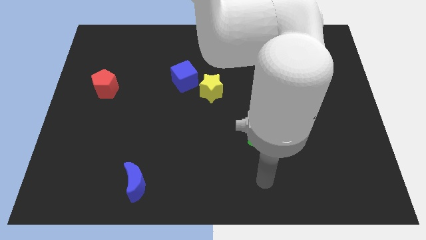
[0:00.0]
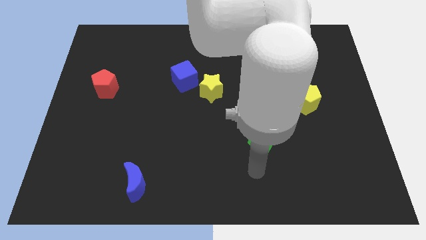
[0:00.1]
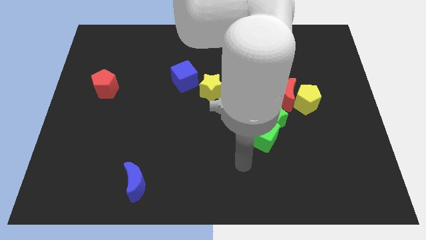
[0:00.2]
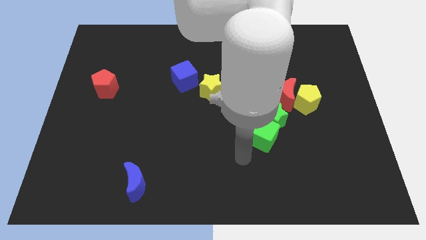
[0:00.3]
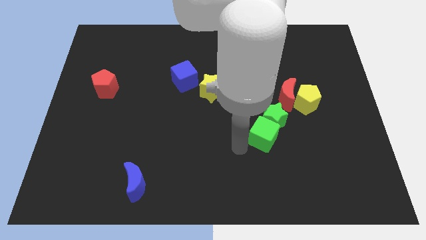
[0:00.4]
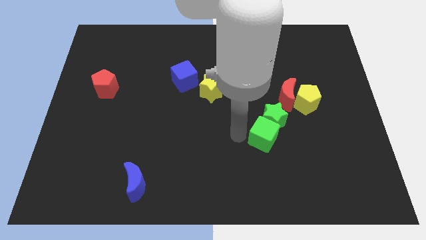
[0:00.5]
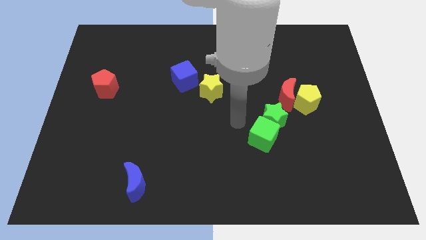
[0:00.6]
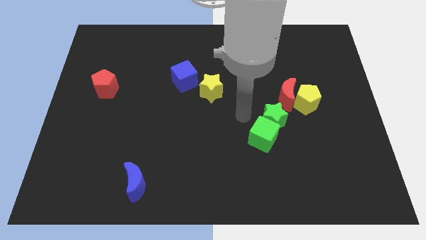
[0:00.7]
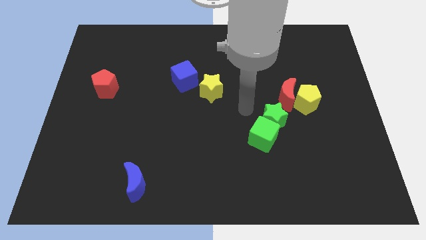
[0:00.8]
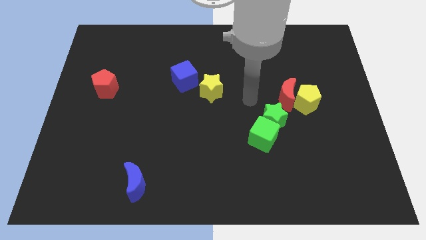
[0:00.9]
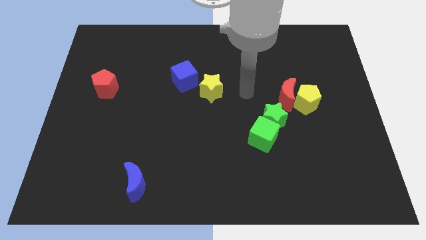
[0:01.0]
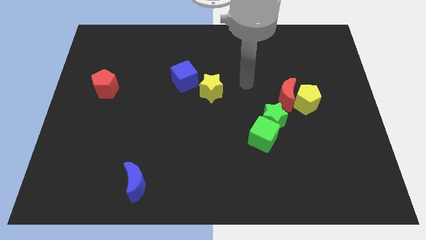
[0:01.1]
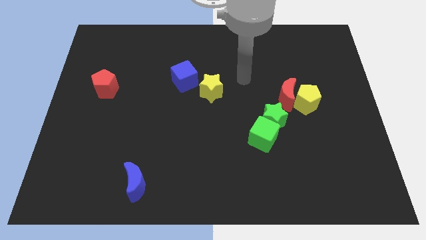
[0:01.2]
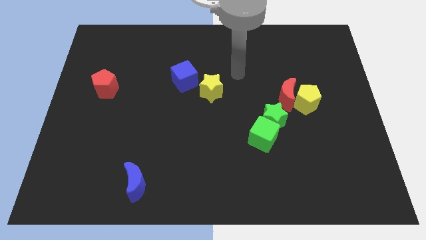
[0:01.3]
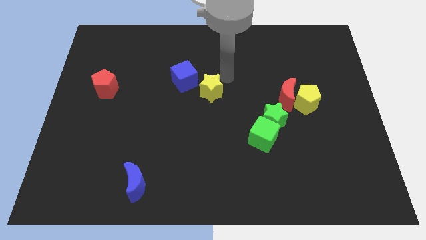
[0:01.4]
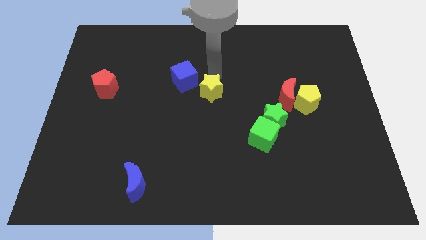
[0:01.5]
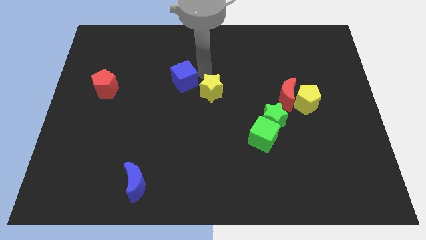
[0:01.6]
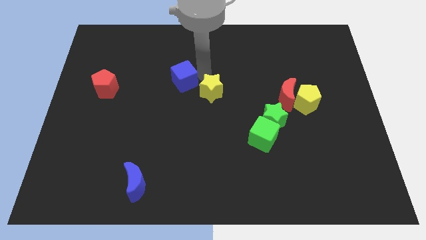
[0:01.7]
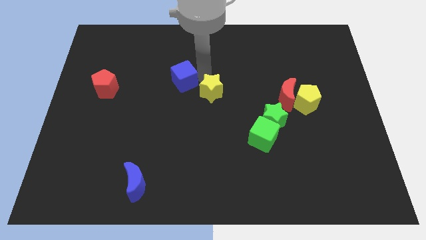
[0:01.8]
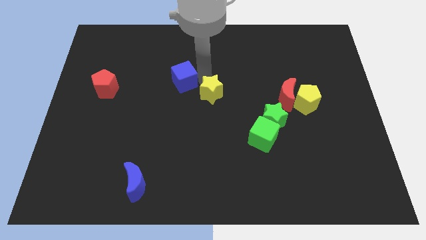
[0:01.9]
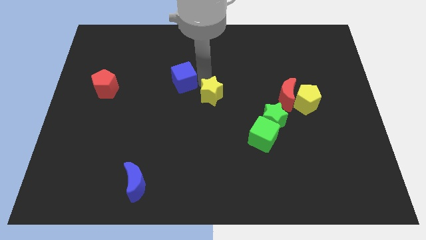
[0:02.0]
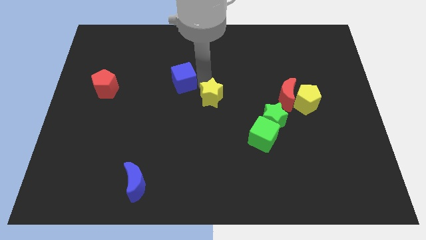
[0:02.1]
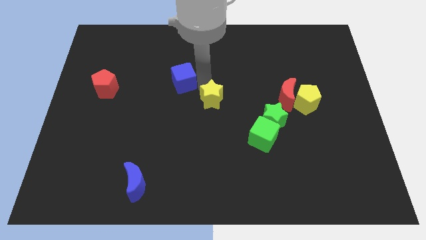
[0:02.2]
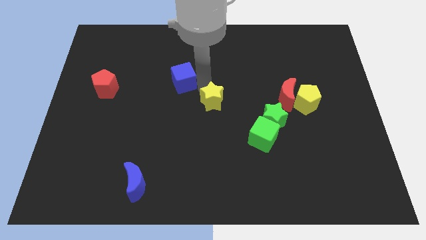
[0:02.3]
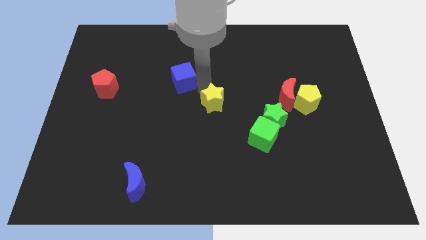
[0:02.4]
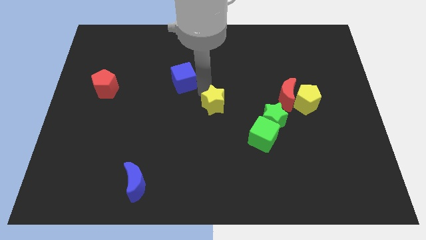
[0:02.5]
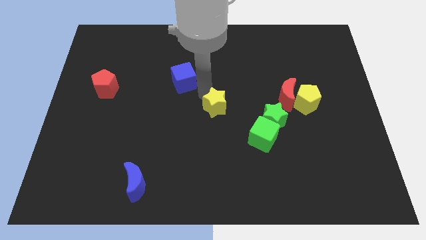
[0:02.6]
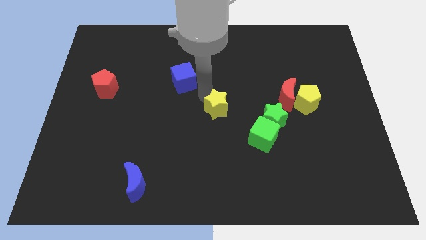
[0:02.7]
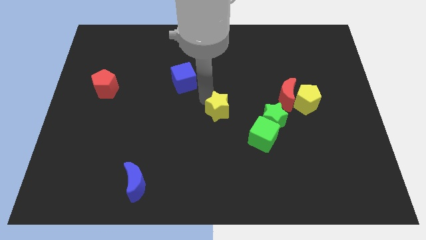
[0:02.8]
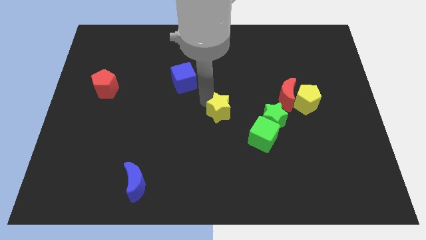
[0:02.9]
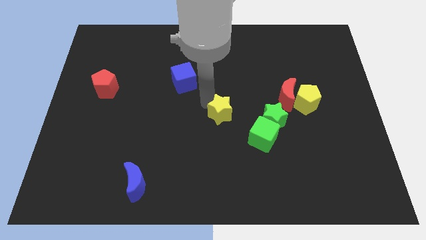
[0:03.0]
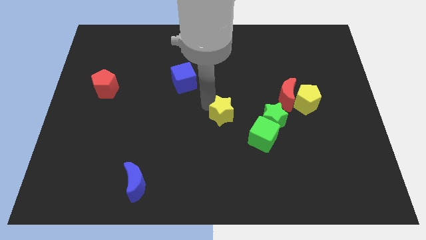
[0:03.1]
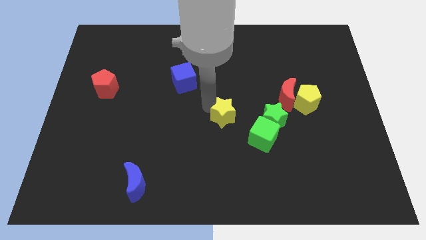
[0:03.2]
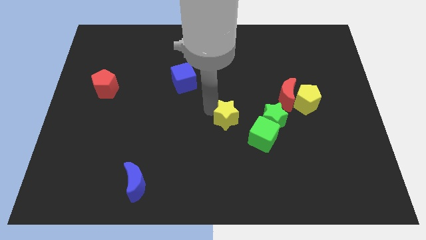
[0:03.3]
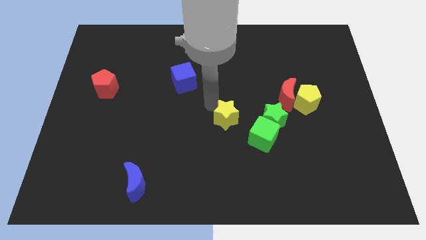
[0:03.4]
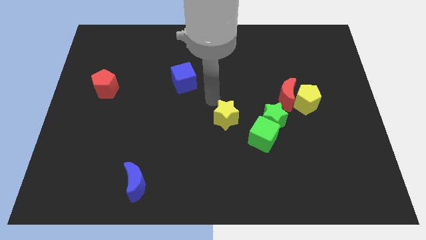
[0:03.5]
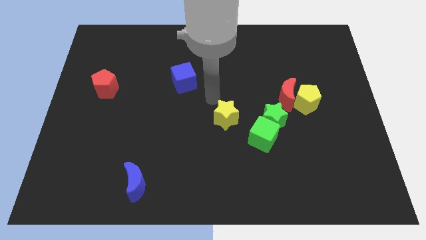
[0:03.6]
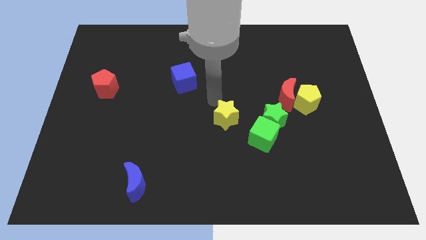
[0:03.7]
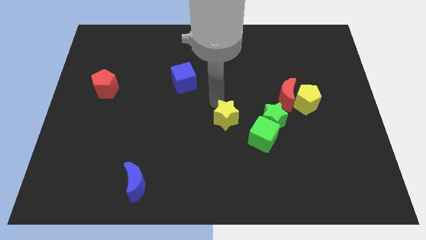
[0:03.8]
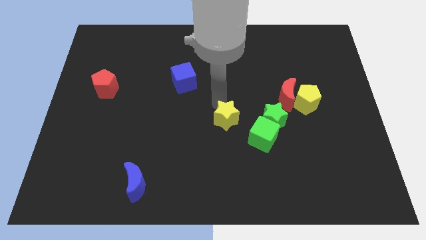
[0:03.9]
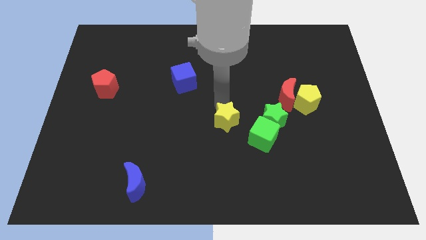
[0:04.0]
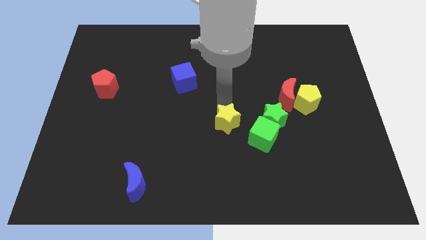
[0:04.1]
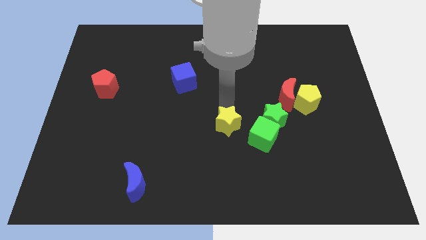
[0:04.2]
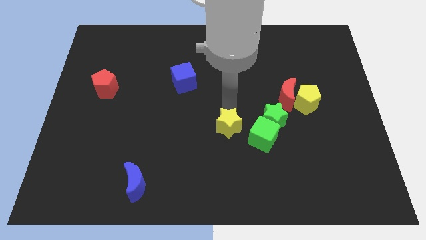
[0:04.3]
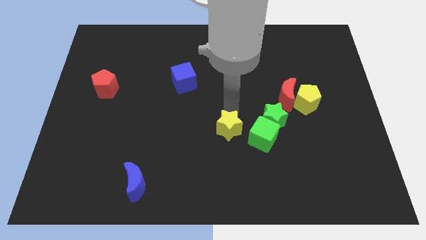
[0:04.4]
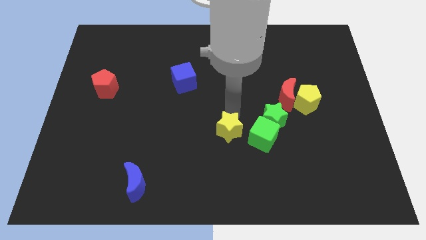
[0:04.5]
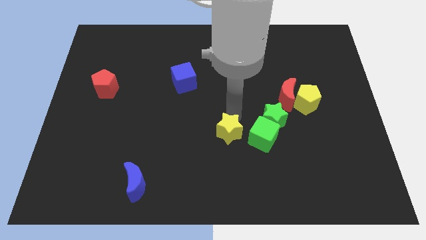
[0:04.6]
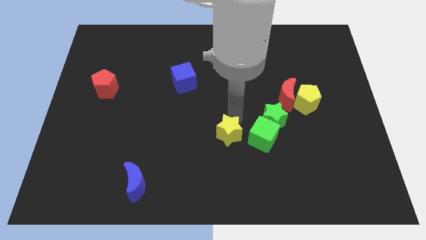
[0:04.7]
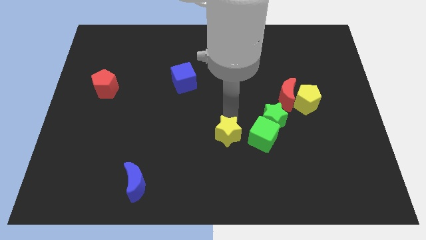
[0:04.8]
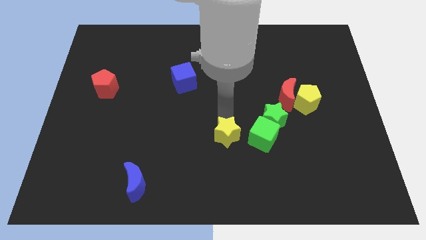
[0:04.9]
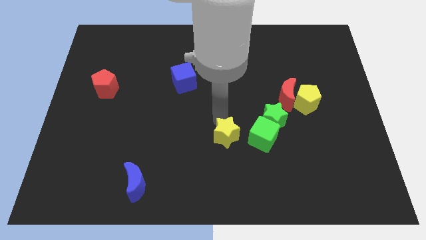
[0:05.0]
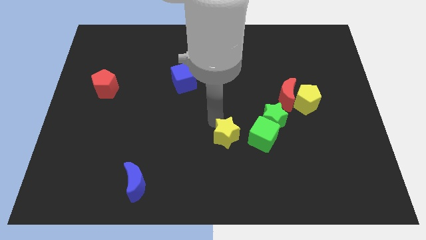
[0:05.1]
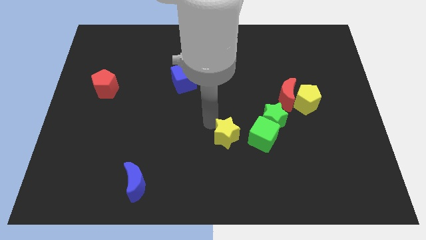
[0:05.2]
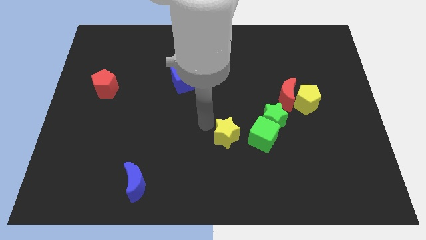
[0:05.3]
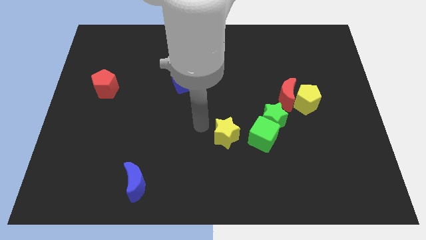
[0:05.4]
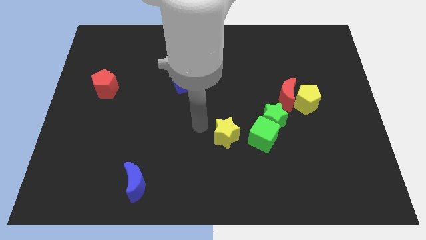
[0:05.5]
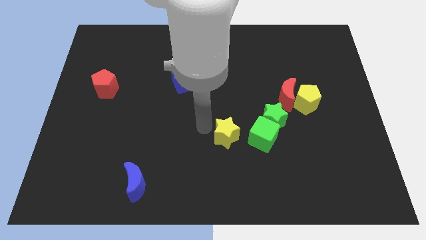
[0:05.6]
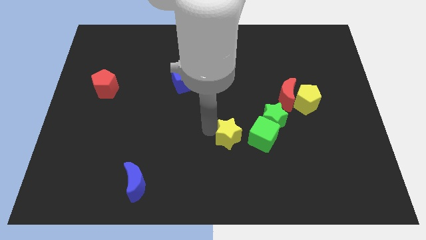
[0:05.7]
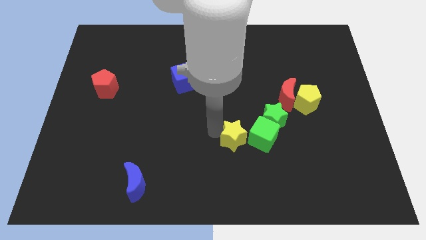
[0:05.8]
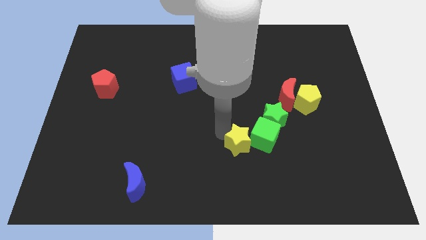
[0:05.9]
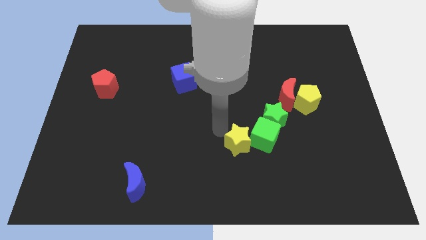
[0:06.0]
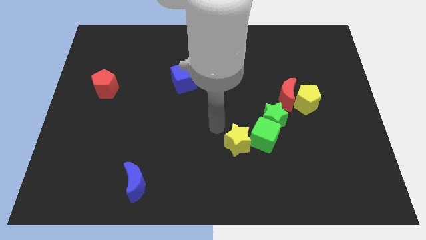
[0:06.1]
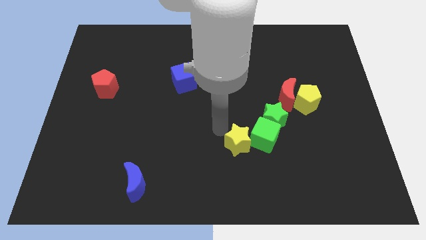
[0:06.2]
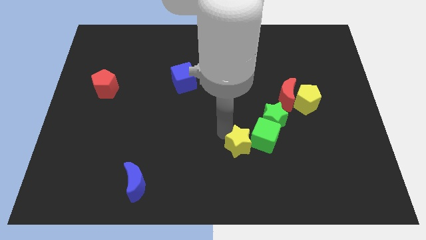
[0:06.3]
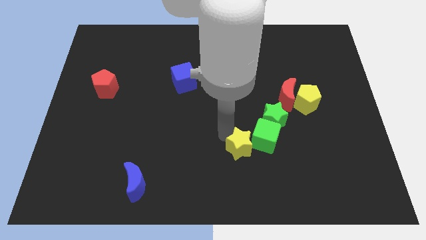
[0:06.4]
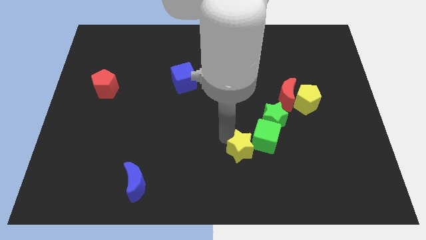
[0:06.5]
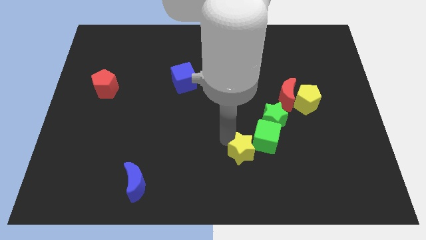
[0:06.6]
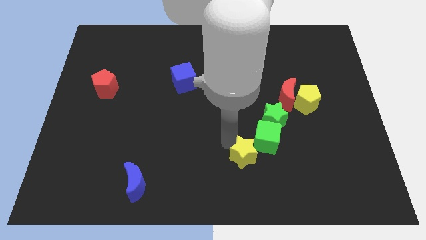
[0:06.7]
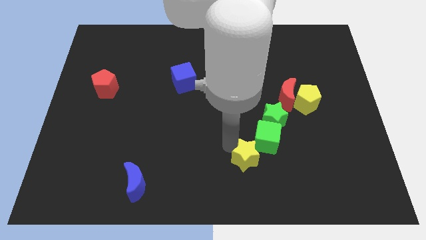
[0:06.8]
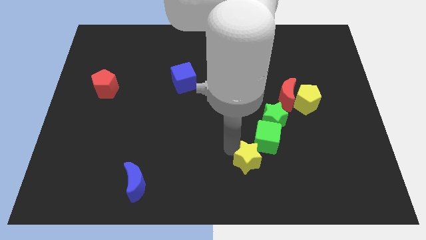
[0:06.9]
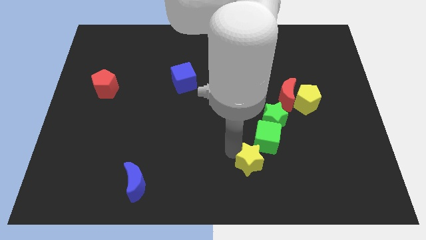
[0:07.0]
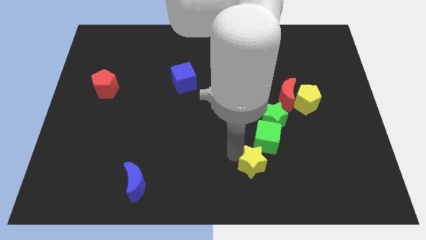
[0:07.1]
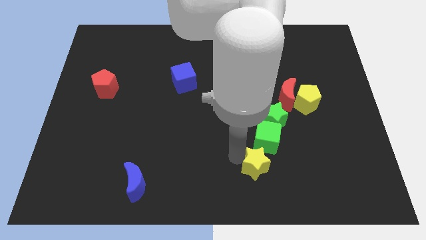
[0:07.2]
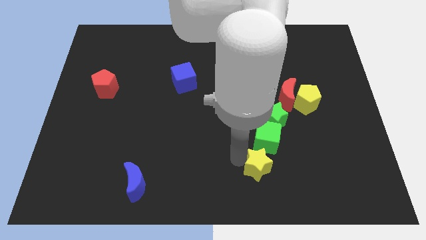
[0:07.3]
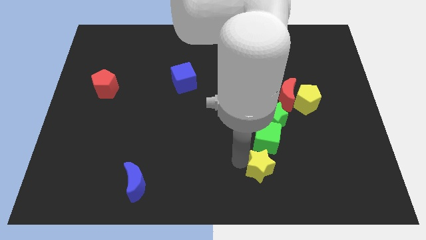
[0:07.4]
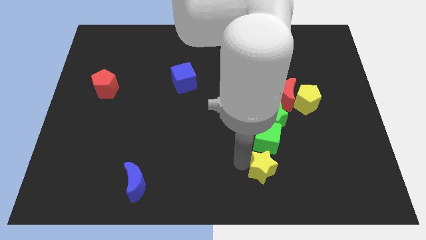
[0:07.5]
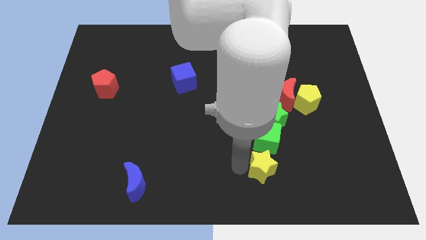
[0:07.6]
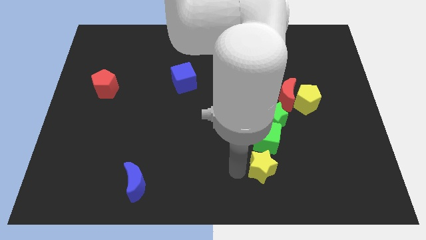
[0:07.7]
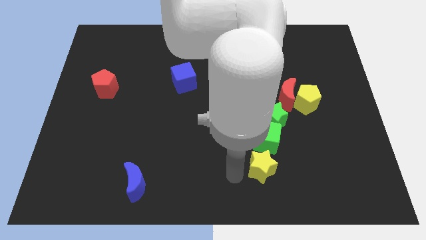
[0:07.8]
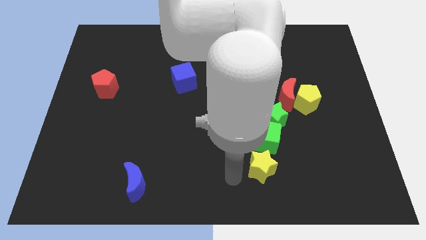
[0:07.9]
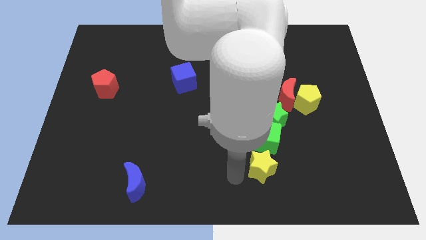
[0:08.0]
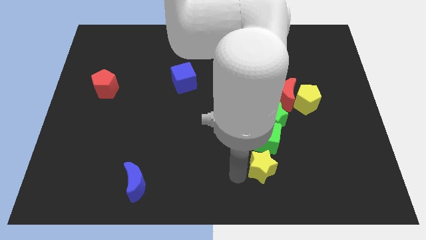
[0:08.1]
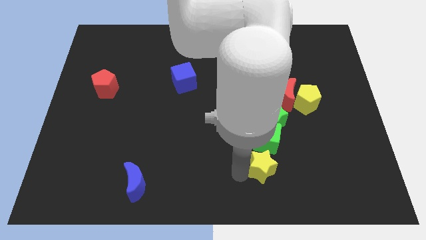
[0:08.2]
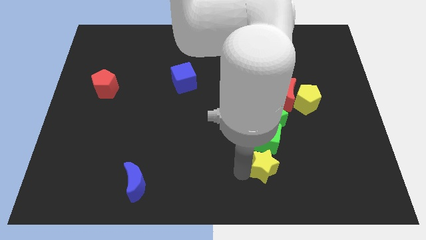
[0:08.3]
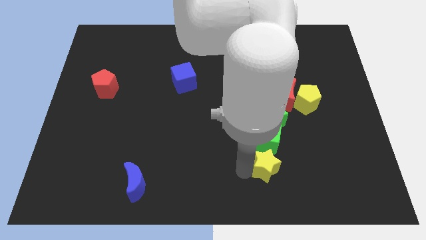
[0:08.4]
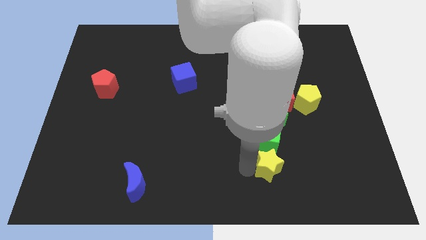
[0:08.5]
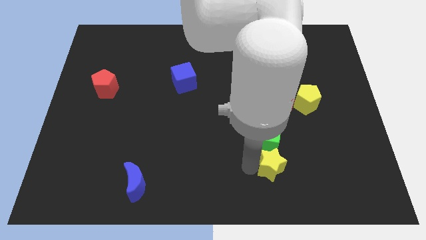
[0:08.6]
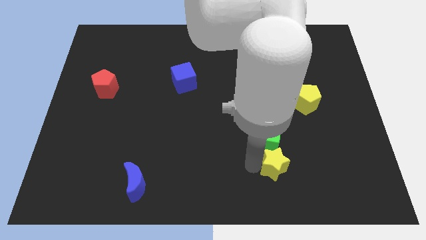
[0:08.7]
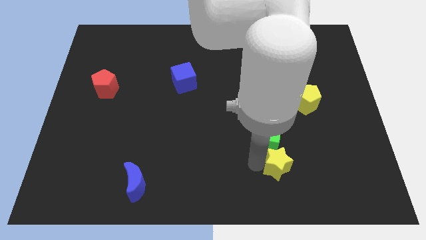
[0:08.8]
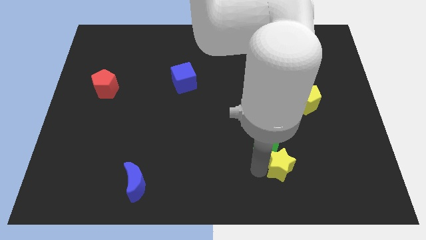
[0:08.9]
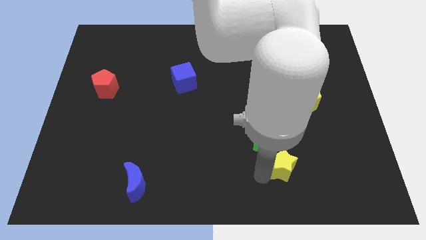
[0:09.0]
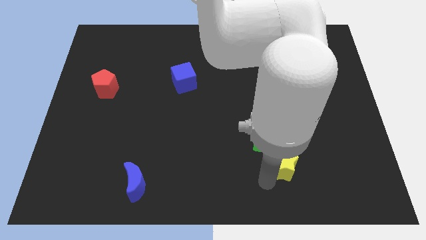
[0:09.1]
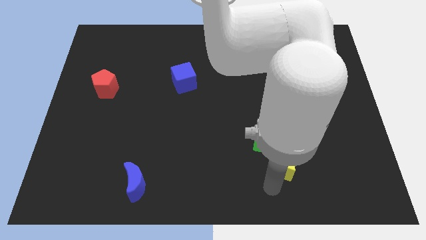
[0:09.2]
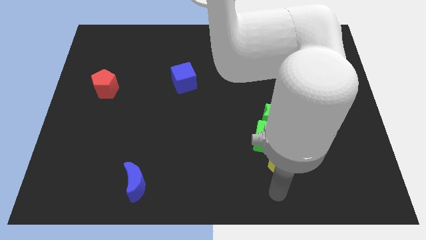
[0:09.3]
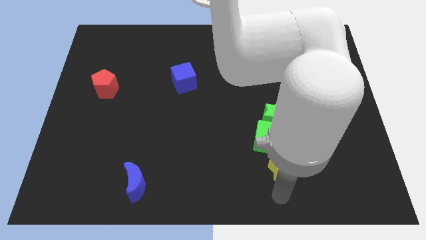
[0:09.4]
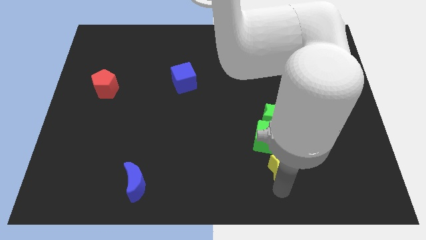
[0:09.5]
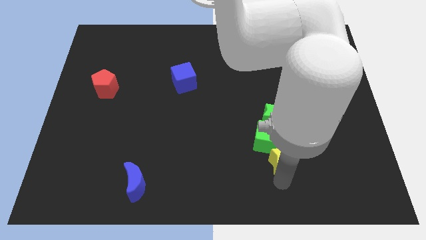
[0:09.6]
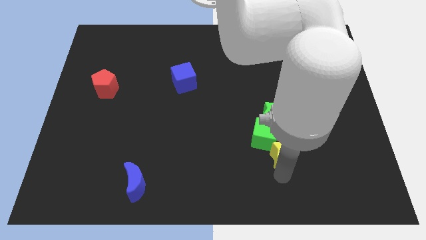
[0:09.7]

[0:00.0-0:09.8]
put the yellow star to the right side of the green cube
